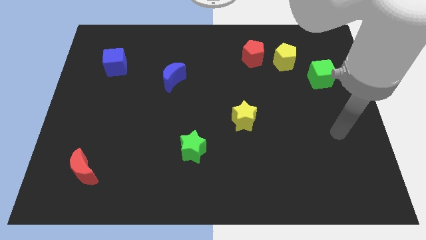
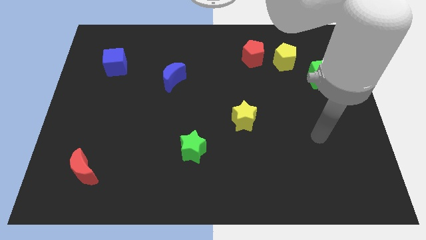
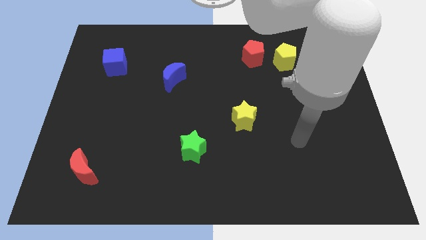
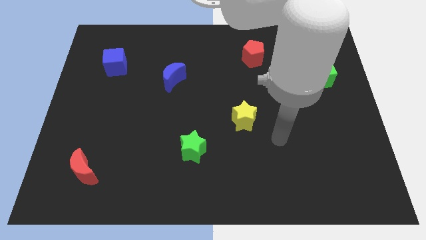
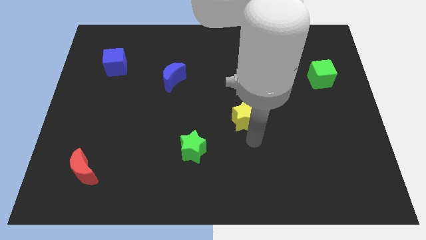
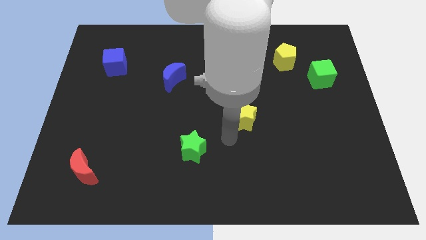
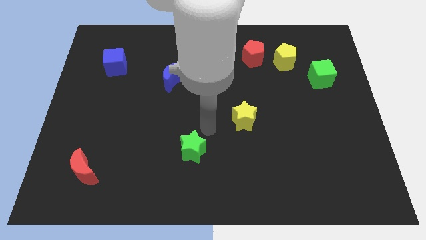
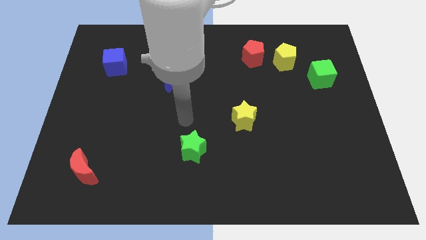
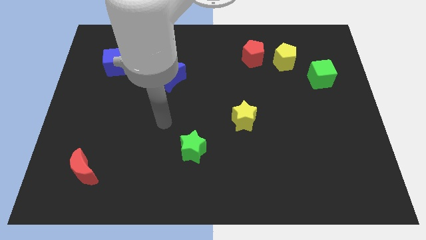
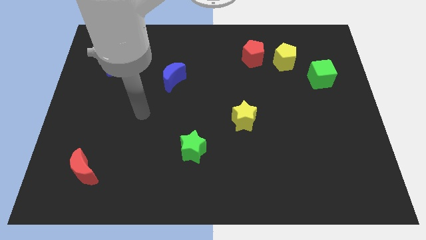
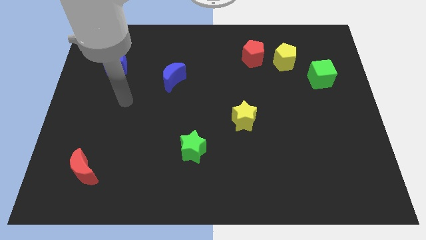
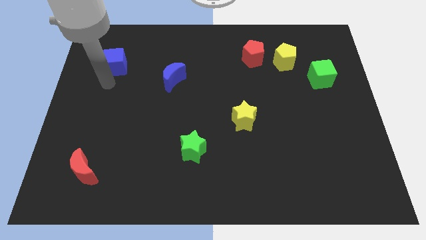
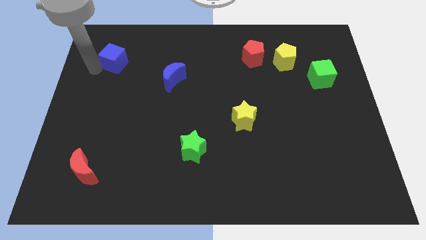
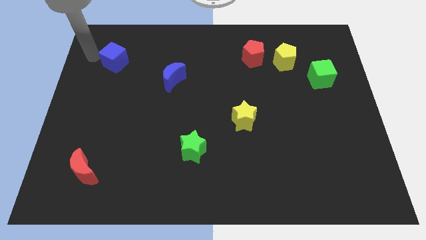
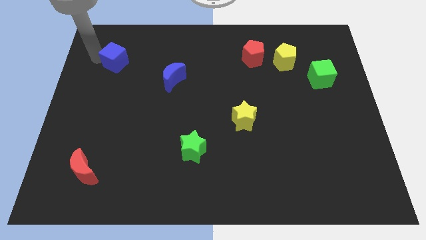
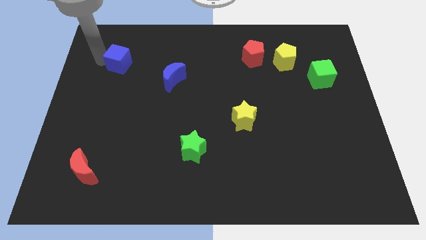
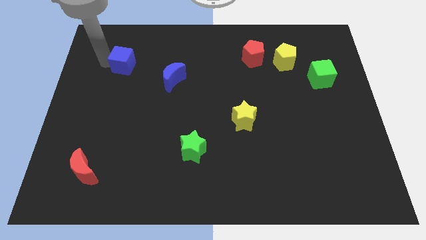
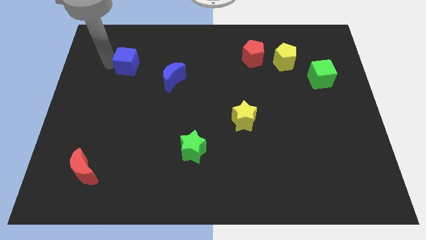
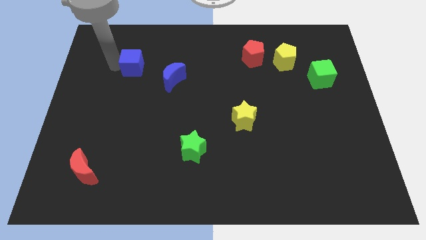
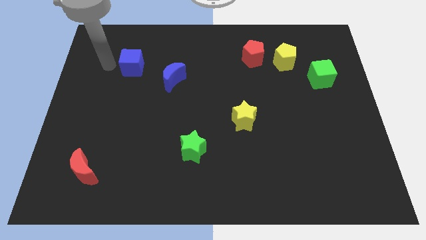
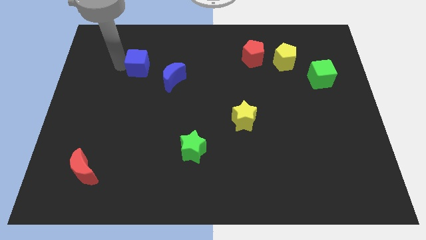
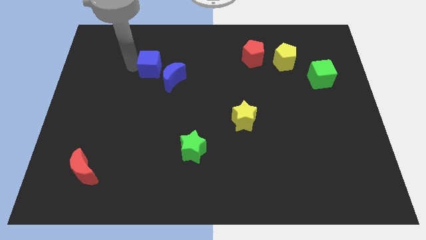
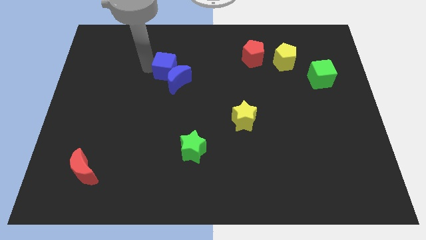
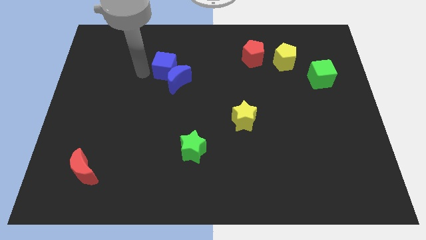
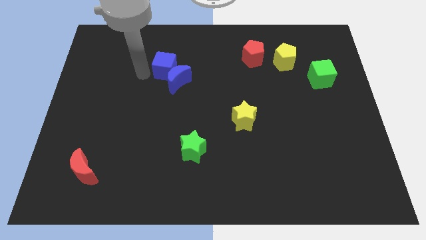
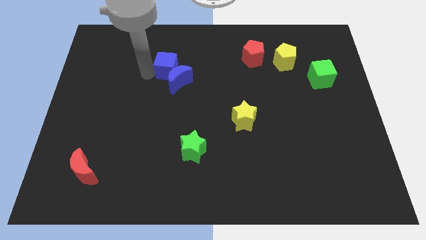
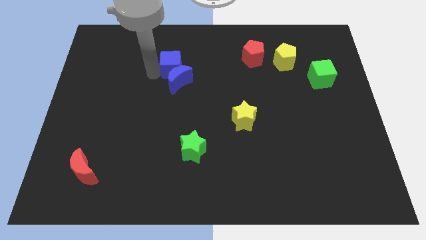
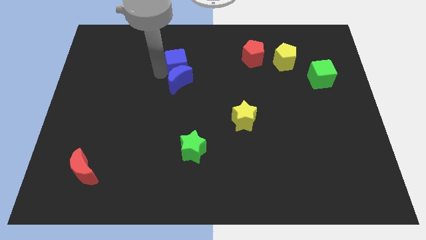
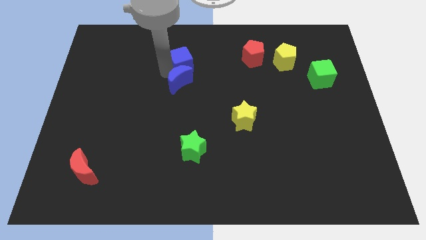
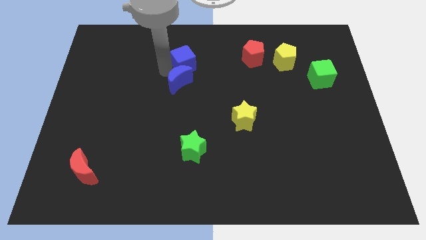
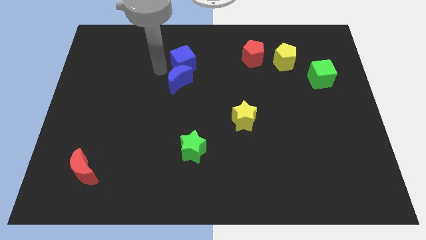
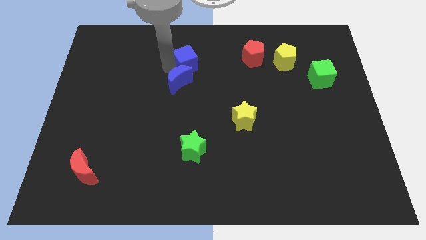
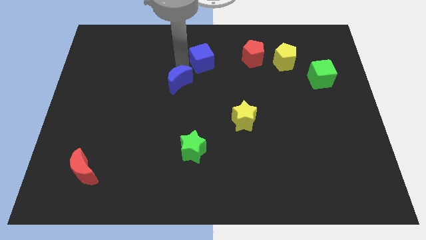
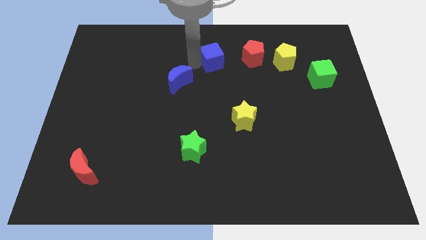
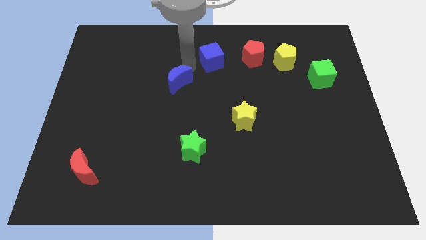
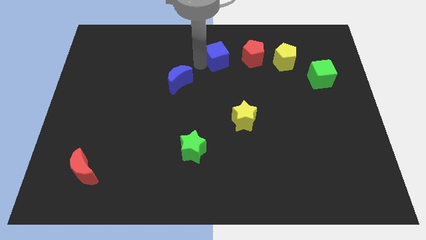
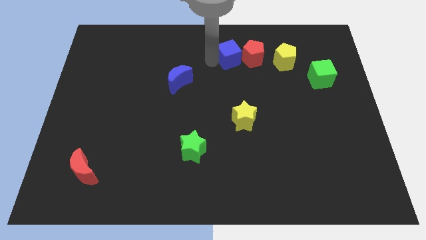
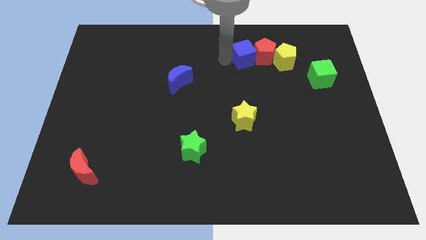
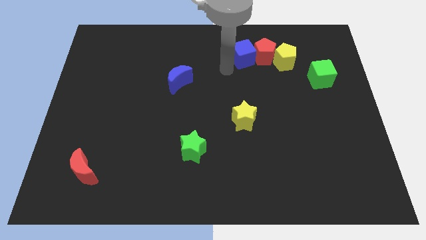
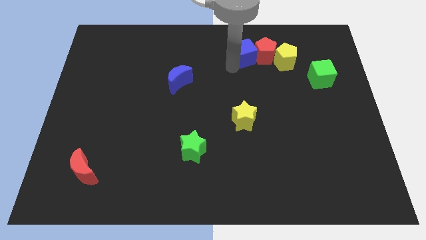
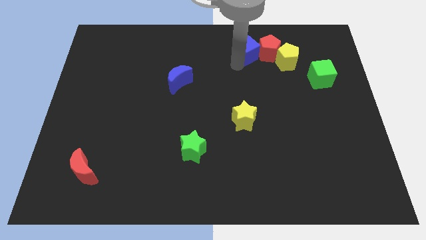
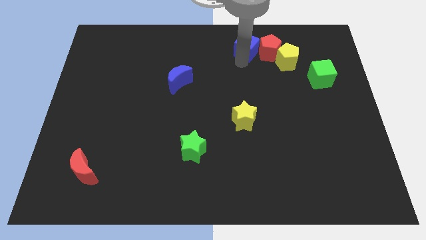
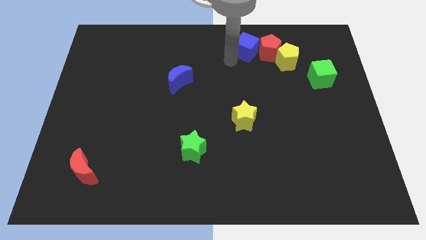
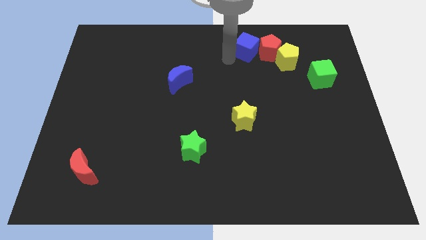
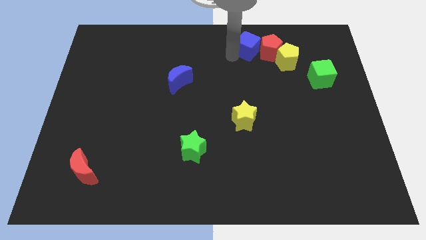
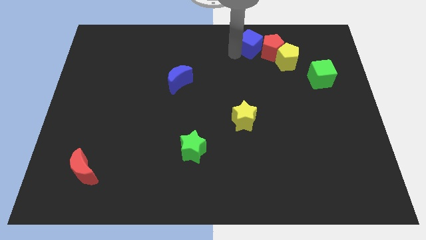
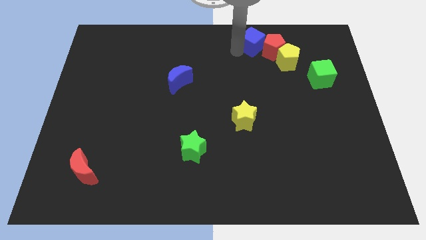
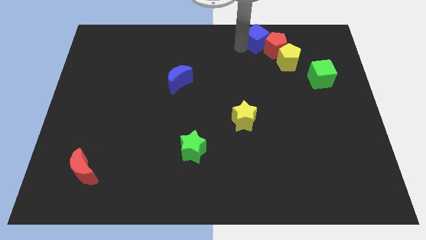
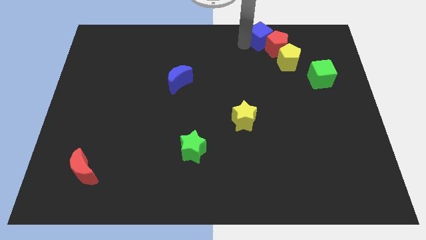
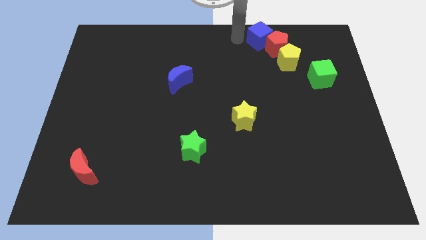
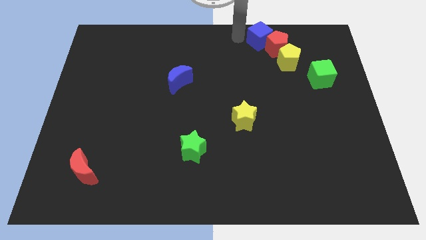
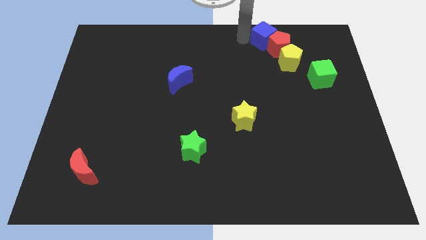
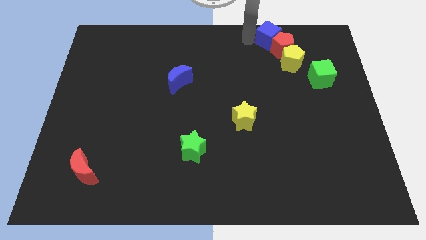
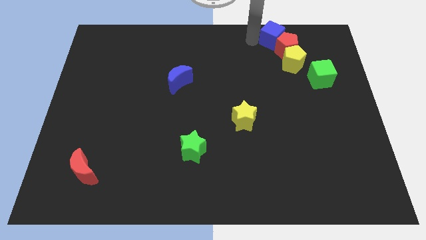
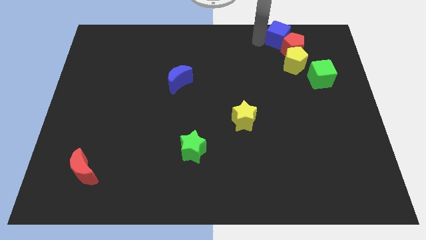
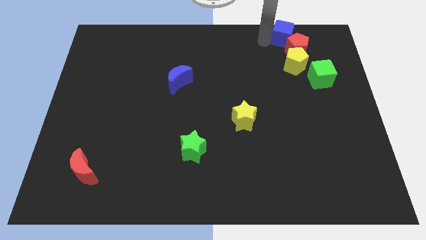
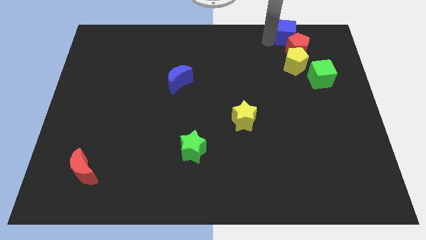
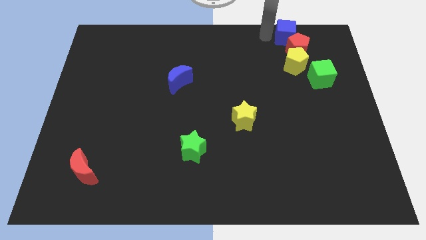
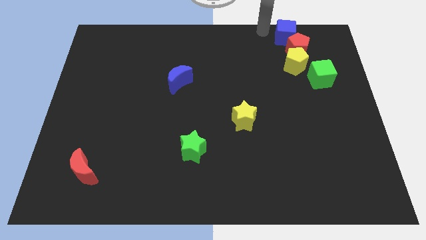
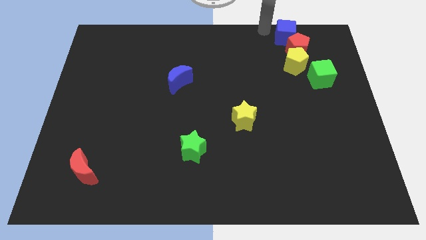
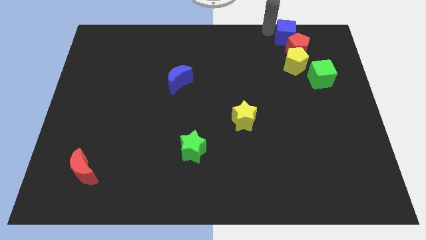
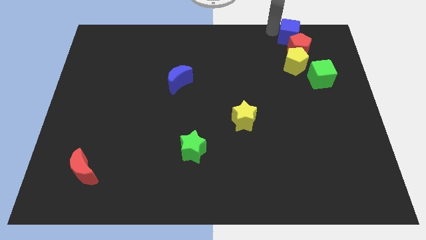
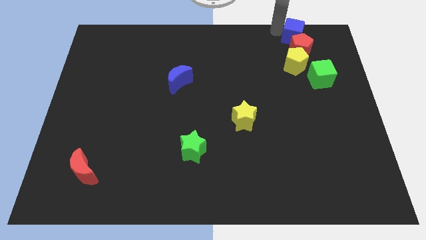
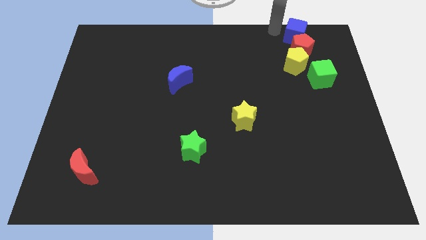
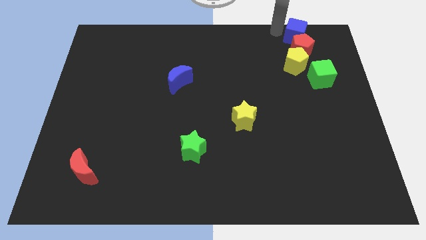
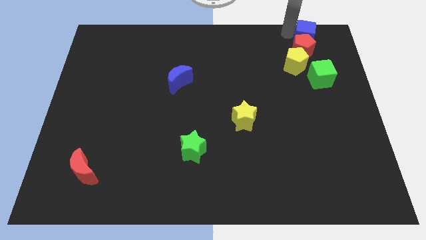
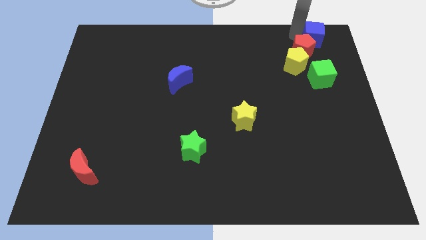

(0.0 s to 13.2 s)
move the blue cube to the top right
